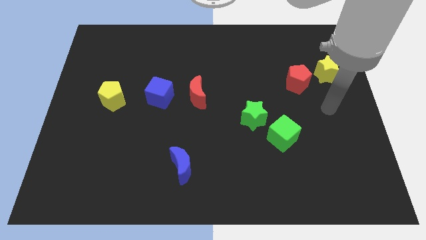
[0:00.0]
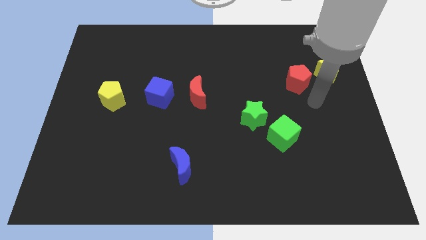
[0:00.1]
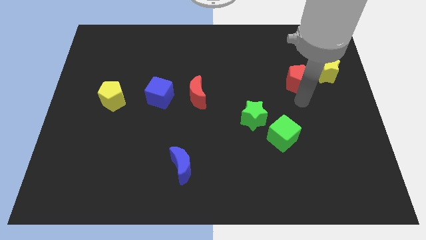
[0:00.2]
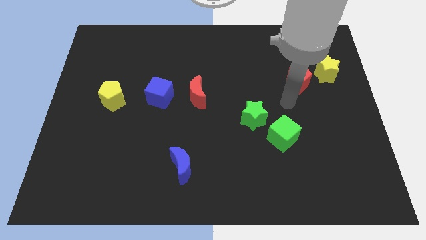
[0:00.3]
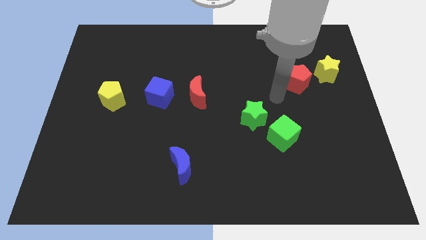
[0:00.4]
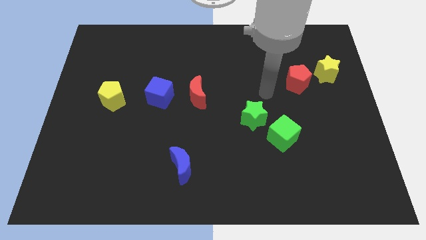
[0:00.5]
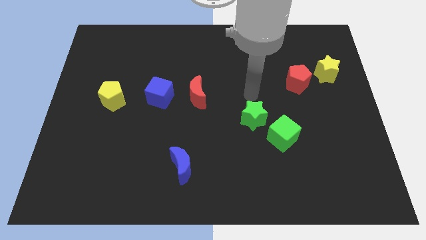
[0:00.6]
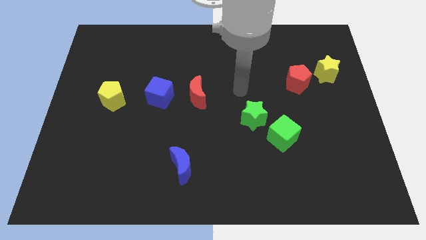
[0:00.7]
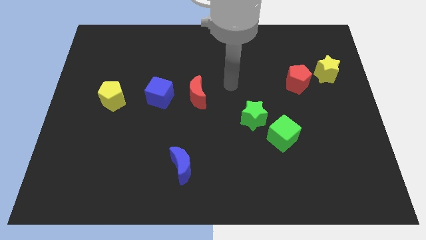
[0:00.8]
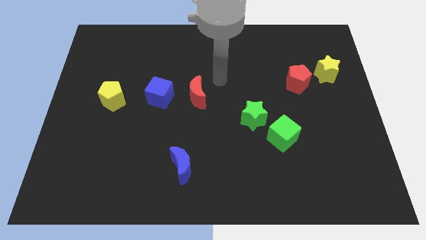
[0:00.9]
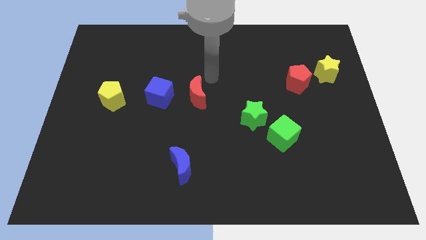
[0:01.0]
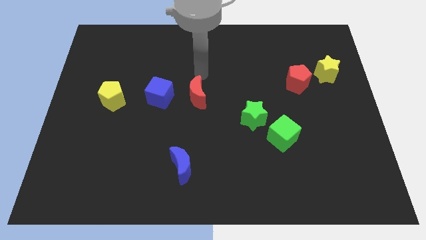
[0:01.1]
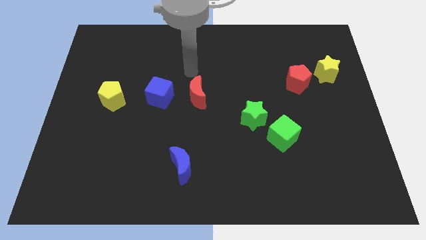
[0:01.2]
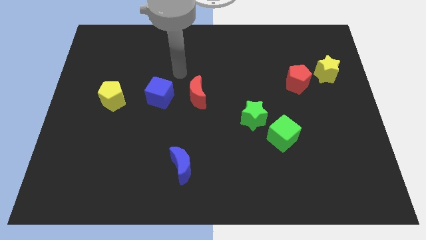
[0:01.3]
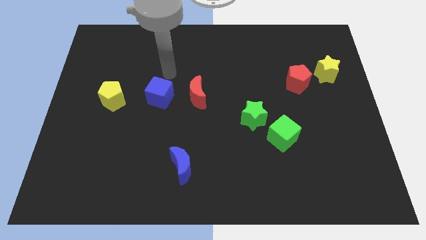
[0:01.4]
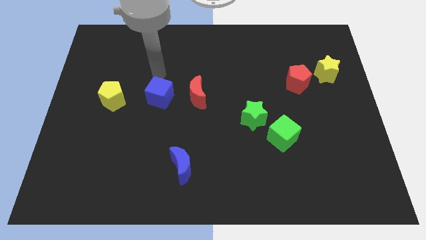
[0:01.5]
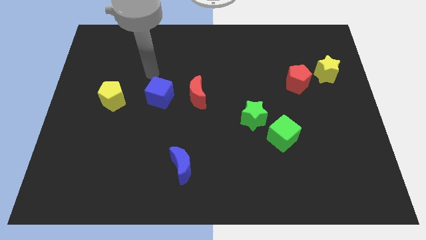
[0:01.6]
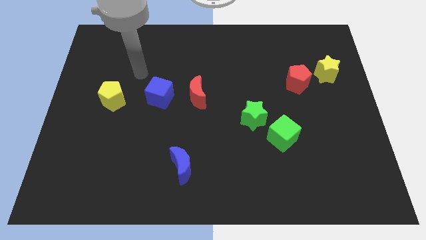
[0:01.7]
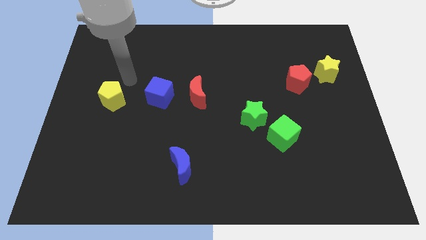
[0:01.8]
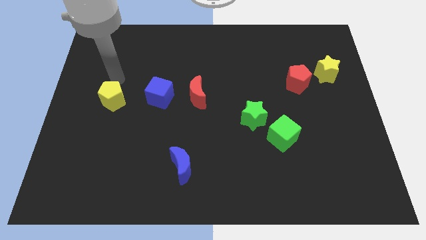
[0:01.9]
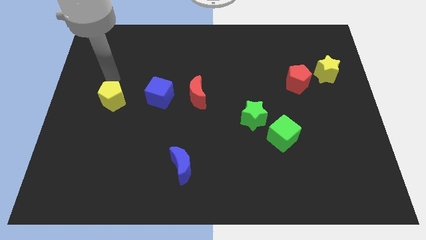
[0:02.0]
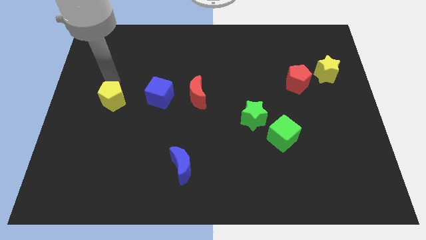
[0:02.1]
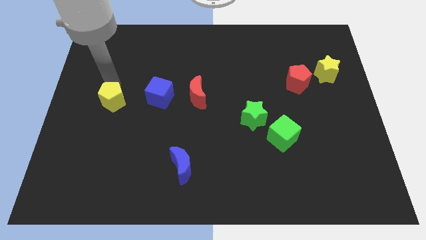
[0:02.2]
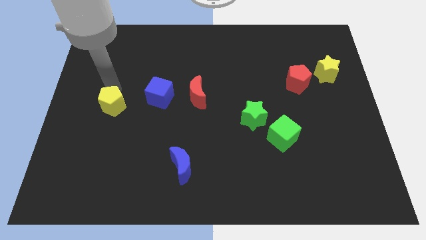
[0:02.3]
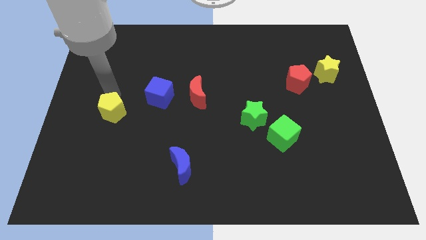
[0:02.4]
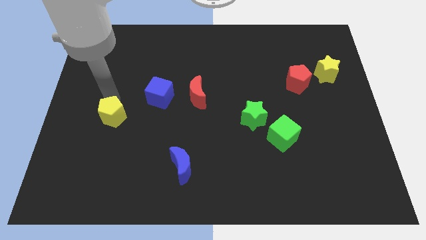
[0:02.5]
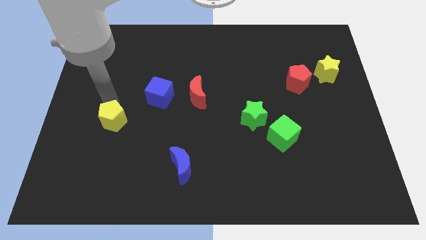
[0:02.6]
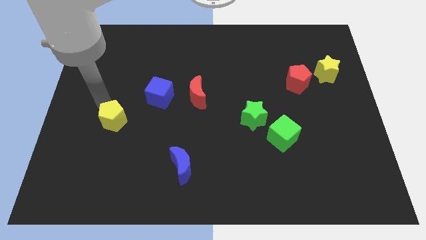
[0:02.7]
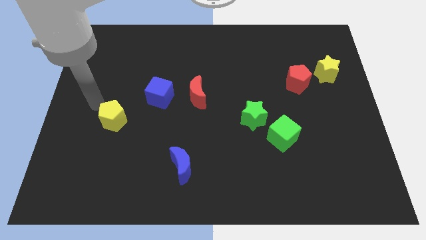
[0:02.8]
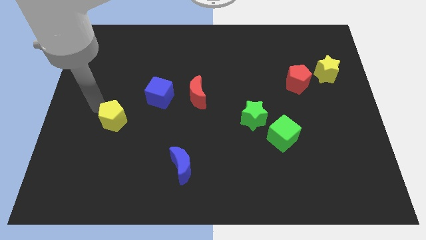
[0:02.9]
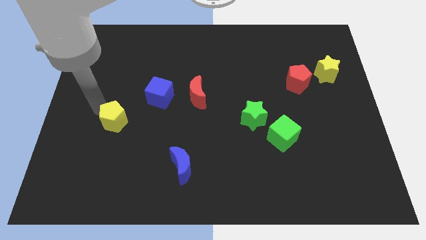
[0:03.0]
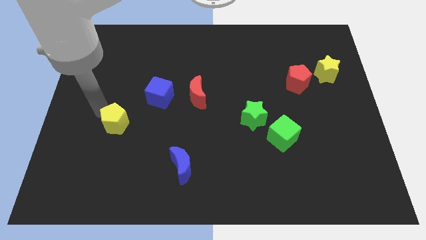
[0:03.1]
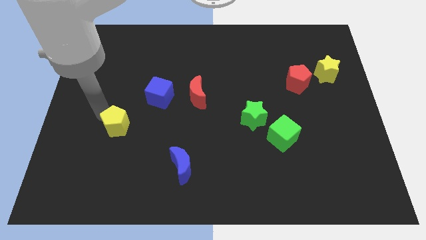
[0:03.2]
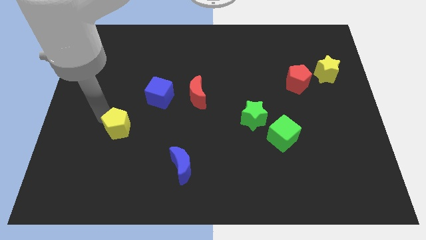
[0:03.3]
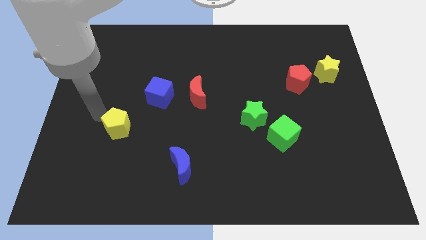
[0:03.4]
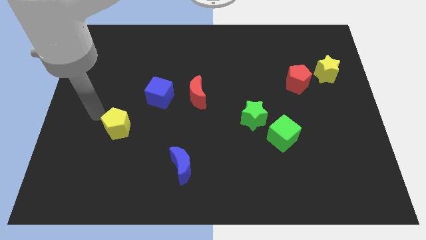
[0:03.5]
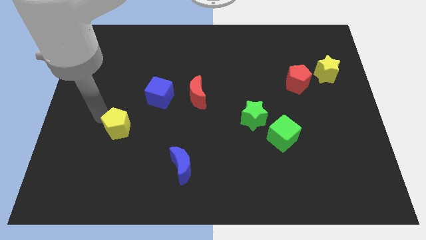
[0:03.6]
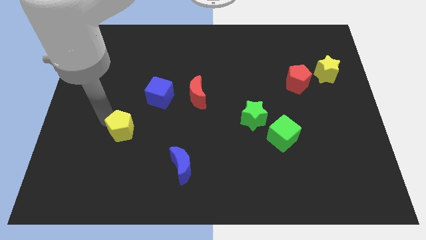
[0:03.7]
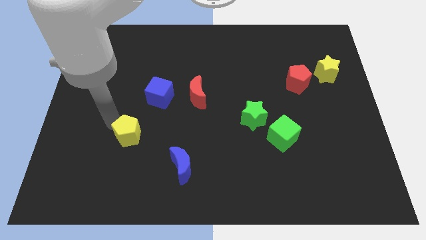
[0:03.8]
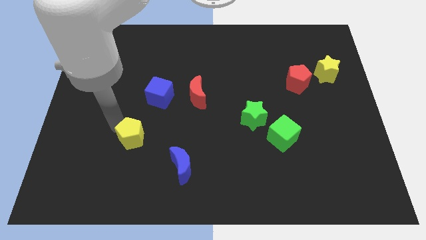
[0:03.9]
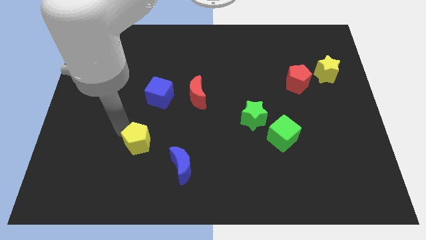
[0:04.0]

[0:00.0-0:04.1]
push the yellow pentagon diagonally up and to the left of the blue moon

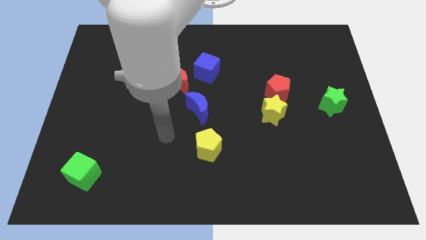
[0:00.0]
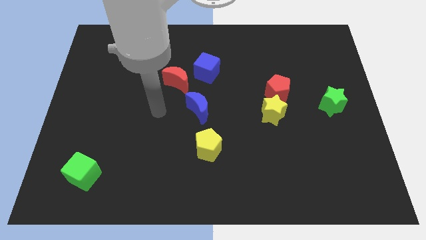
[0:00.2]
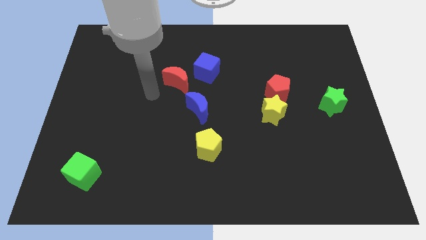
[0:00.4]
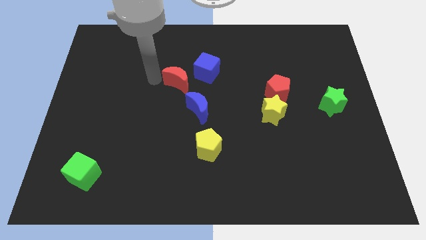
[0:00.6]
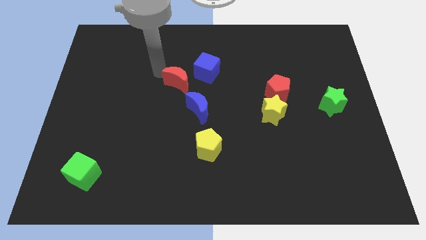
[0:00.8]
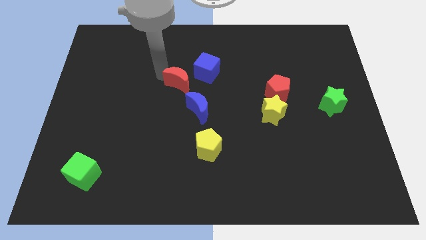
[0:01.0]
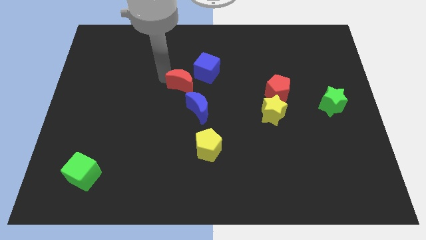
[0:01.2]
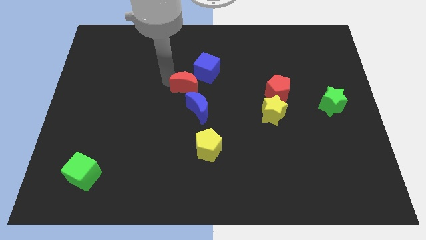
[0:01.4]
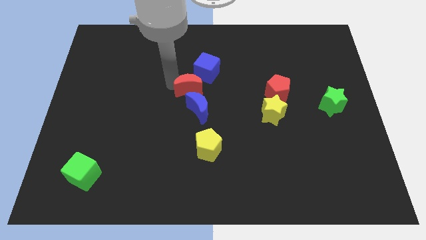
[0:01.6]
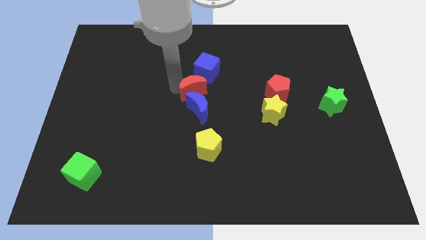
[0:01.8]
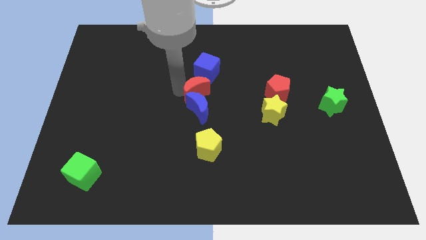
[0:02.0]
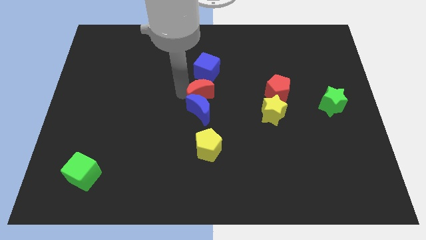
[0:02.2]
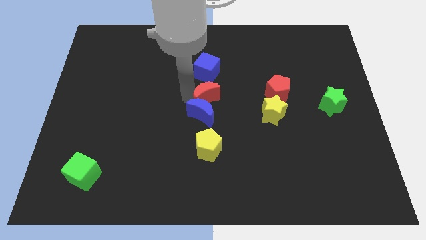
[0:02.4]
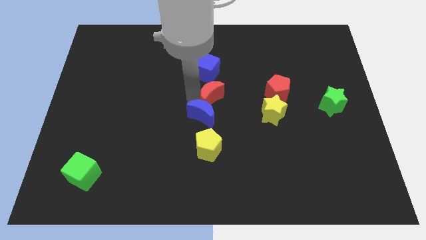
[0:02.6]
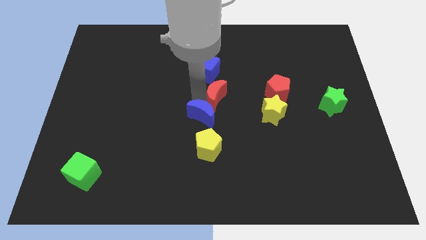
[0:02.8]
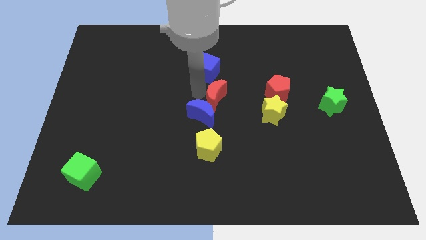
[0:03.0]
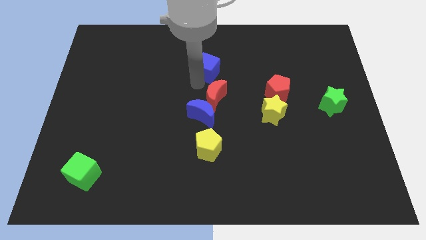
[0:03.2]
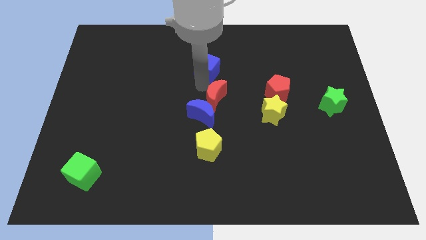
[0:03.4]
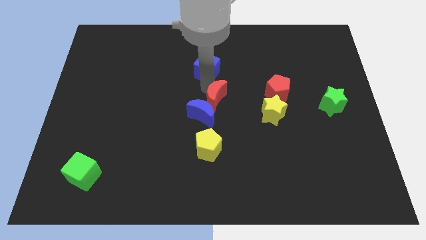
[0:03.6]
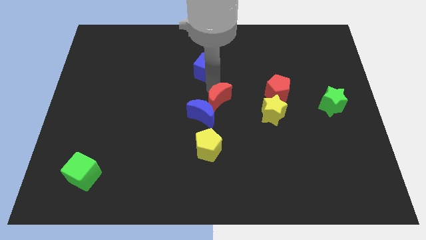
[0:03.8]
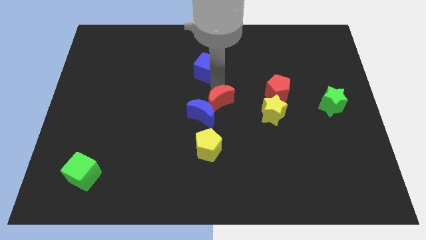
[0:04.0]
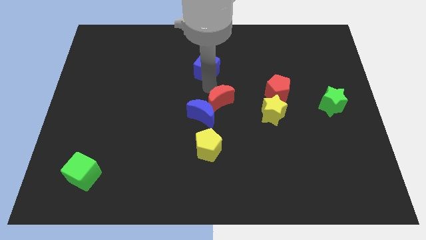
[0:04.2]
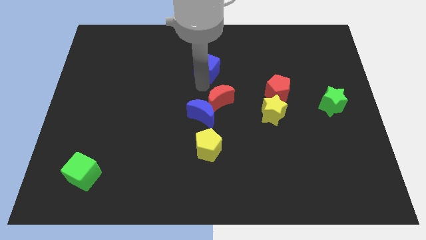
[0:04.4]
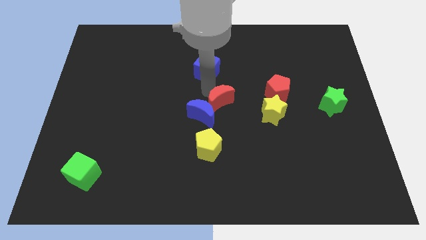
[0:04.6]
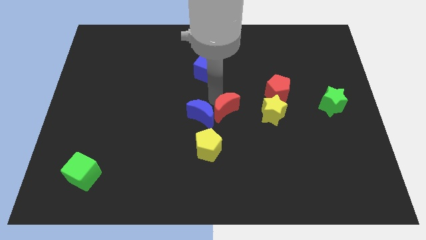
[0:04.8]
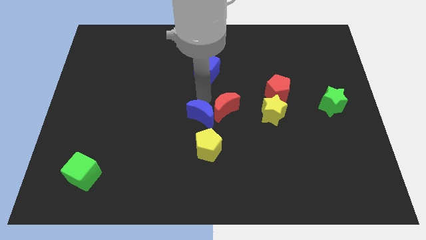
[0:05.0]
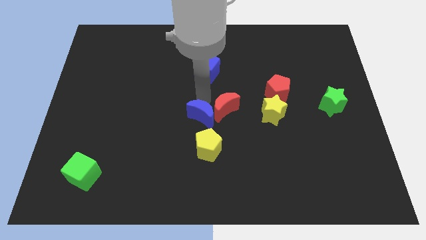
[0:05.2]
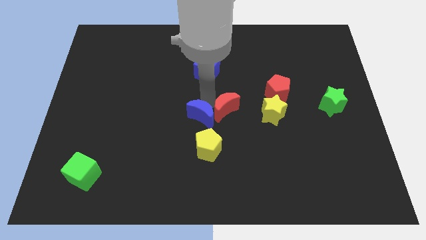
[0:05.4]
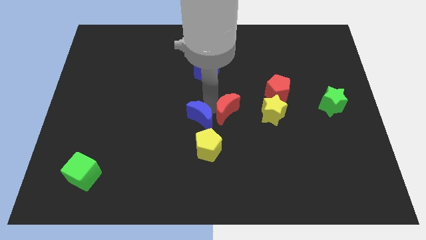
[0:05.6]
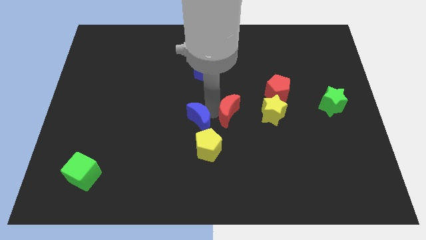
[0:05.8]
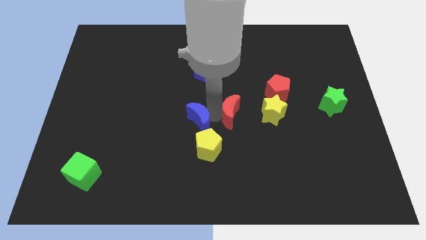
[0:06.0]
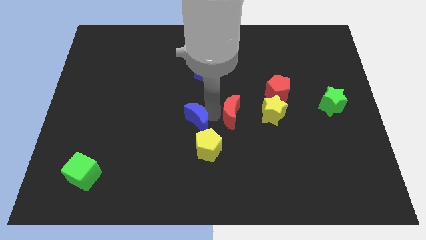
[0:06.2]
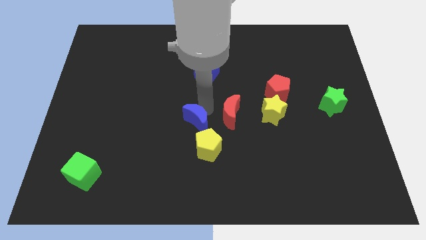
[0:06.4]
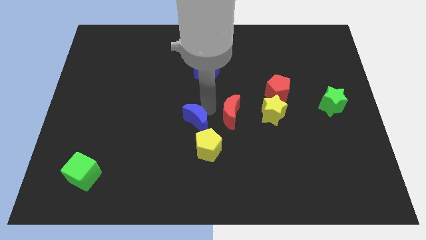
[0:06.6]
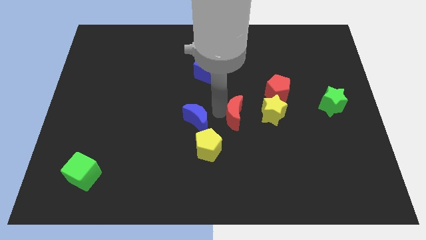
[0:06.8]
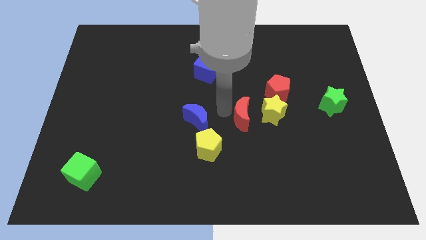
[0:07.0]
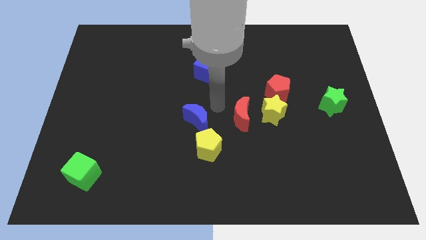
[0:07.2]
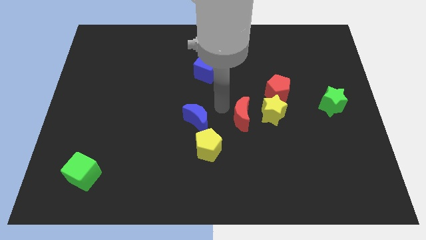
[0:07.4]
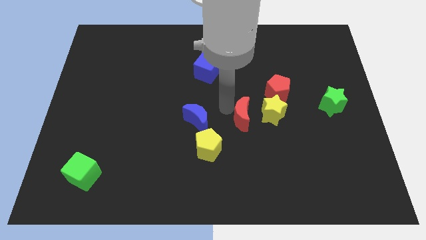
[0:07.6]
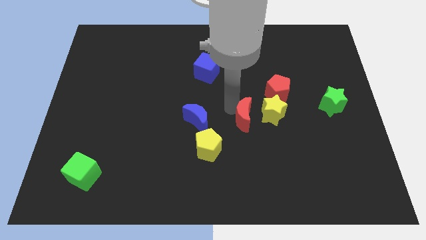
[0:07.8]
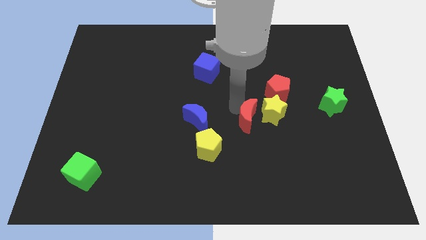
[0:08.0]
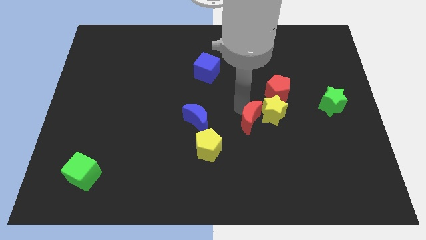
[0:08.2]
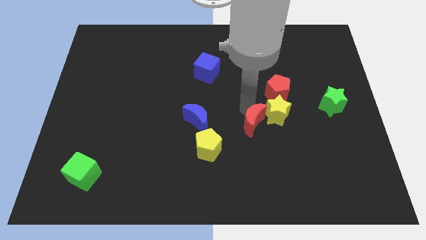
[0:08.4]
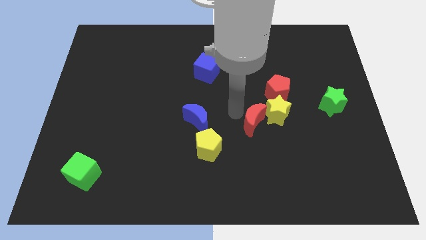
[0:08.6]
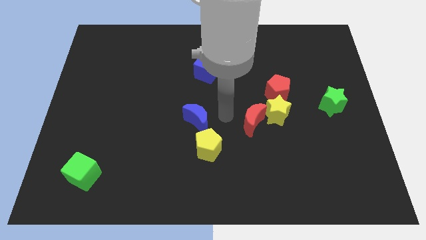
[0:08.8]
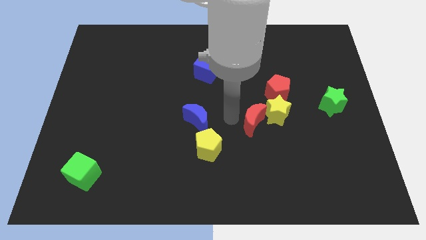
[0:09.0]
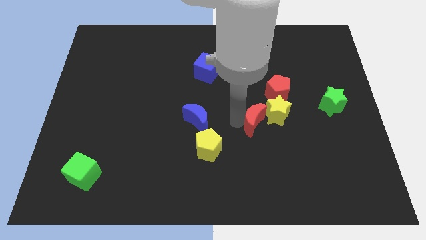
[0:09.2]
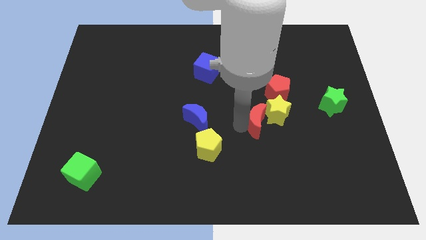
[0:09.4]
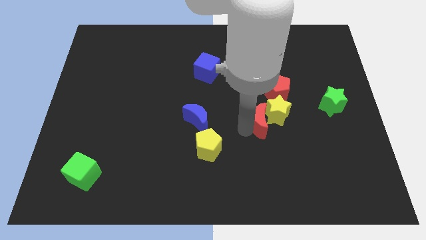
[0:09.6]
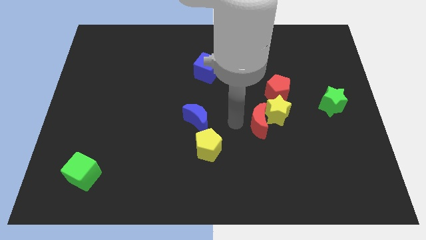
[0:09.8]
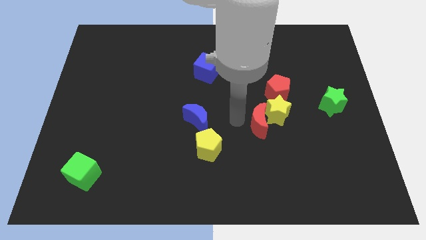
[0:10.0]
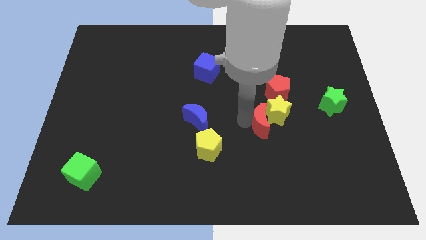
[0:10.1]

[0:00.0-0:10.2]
slide the red moon to the bottom of the red pentagon
